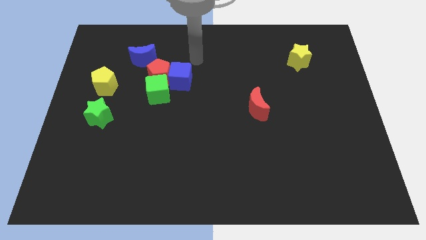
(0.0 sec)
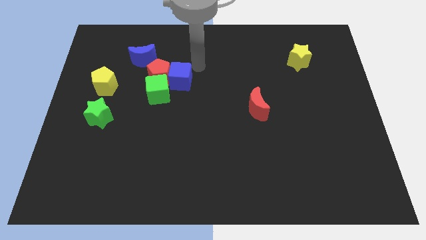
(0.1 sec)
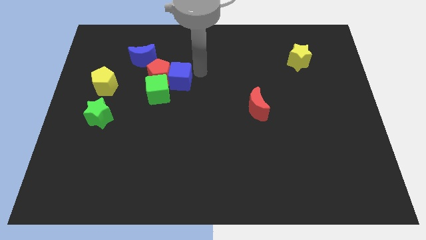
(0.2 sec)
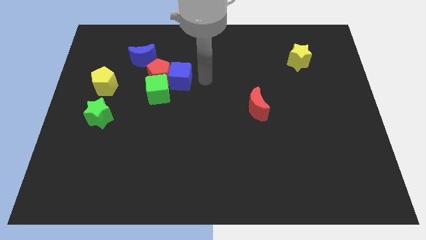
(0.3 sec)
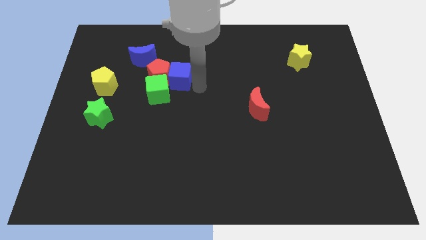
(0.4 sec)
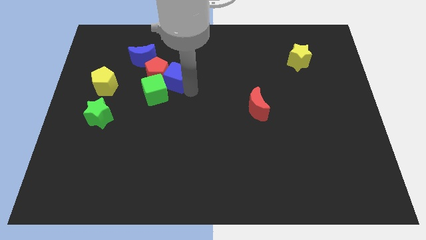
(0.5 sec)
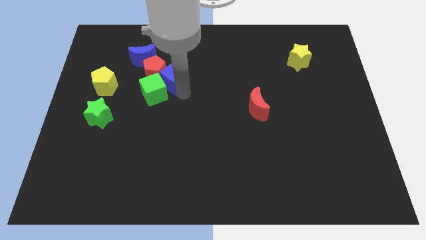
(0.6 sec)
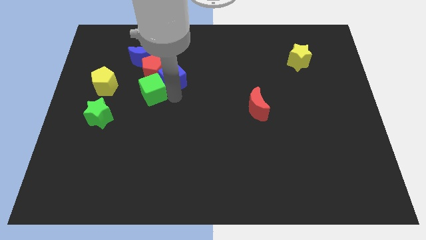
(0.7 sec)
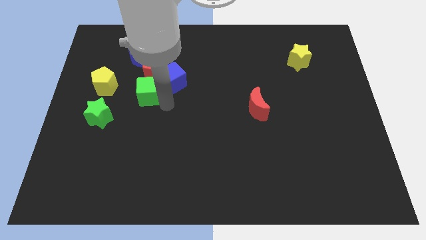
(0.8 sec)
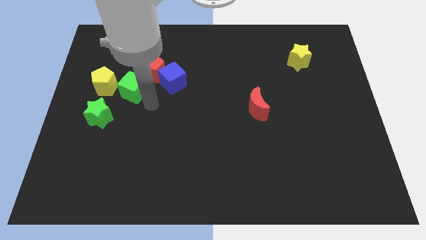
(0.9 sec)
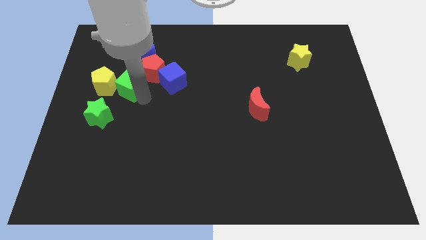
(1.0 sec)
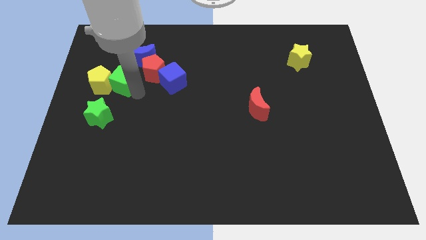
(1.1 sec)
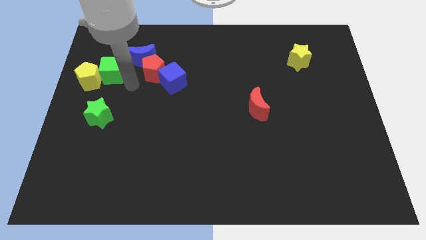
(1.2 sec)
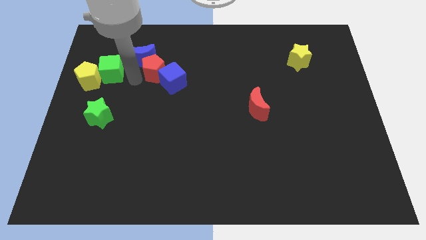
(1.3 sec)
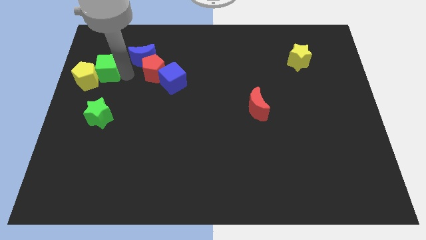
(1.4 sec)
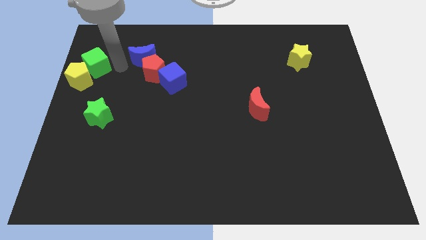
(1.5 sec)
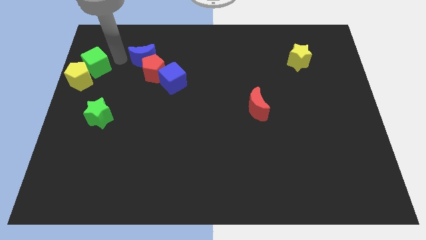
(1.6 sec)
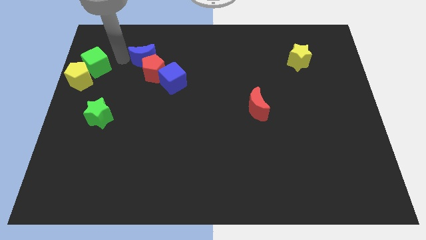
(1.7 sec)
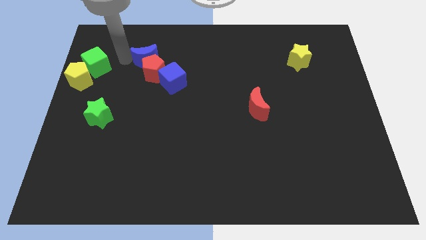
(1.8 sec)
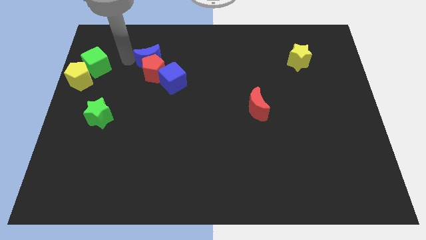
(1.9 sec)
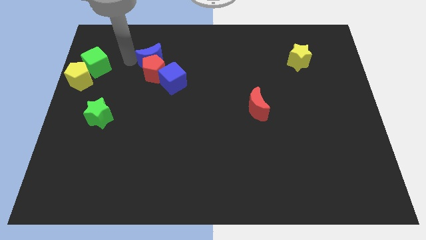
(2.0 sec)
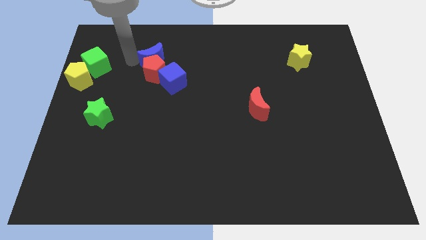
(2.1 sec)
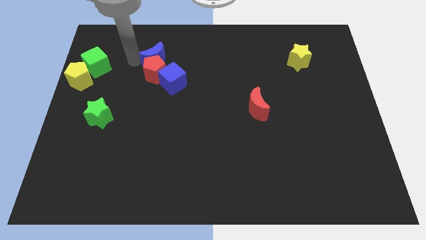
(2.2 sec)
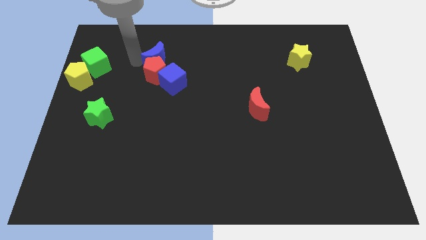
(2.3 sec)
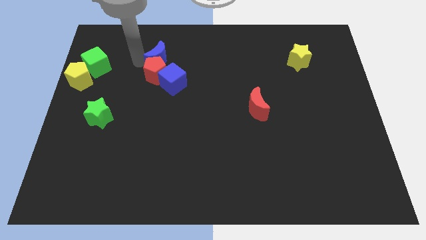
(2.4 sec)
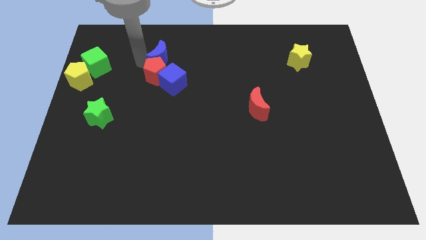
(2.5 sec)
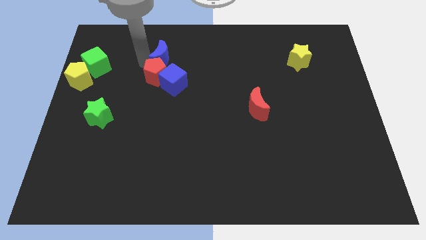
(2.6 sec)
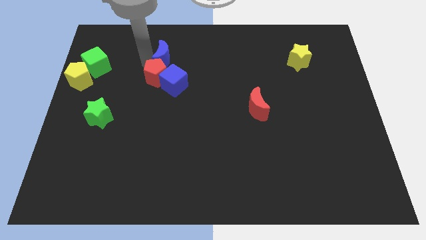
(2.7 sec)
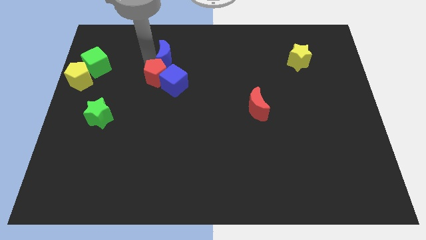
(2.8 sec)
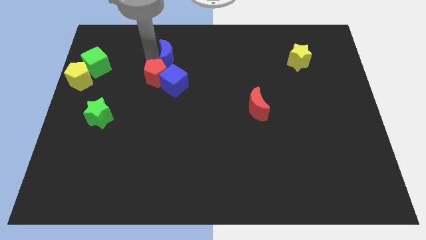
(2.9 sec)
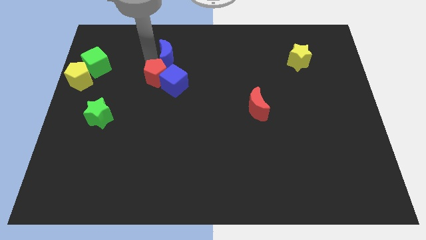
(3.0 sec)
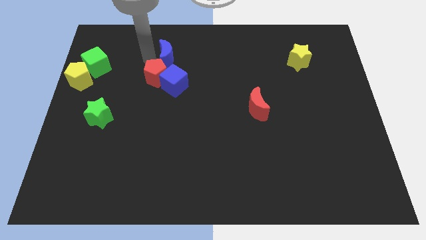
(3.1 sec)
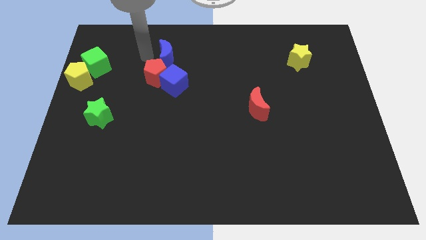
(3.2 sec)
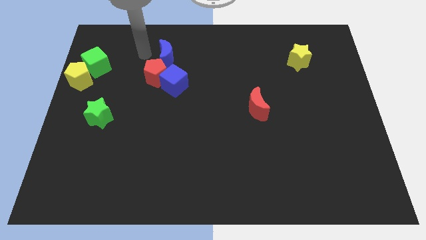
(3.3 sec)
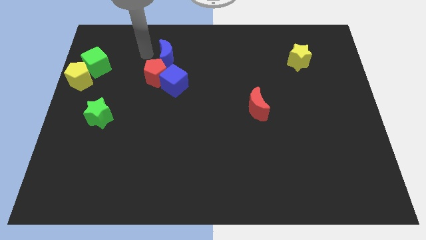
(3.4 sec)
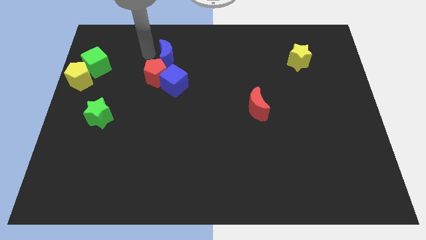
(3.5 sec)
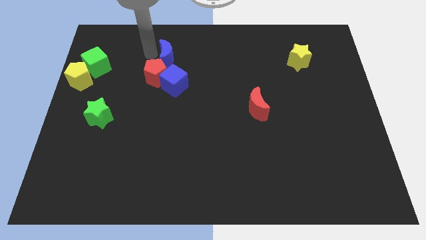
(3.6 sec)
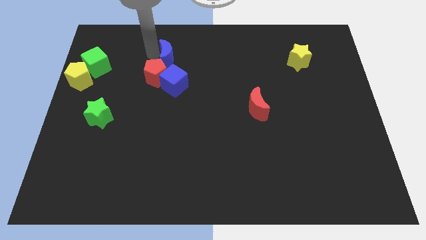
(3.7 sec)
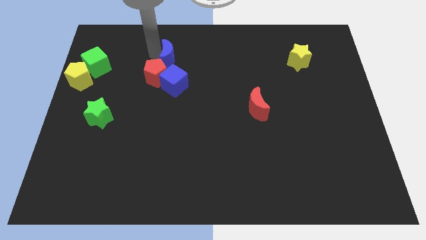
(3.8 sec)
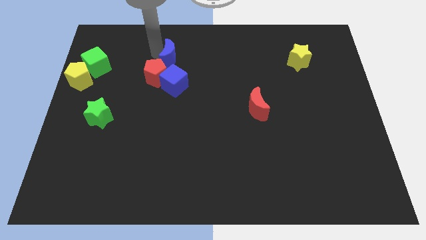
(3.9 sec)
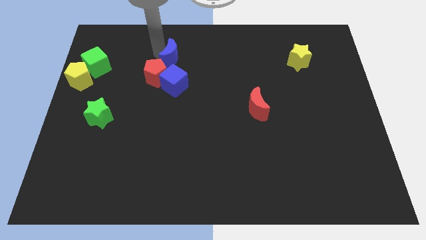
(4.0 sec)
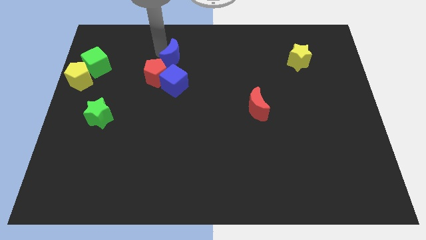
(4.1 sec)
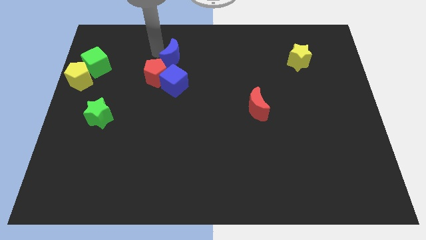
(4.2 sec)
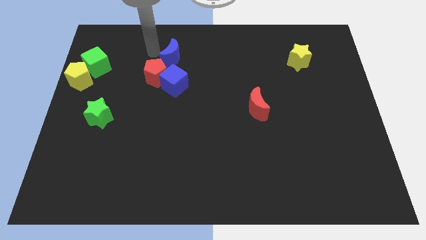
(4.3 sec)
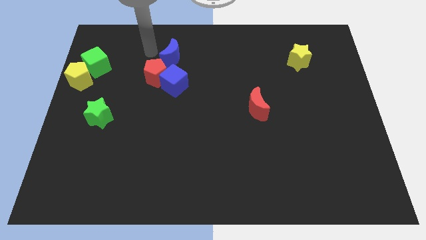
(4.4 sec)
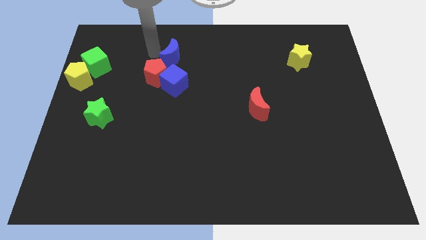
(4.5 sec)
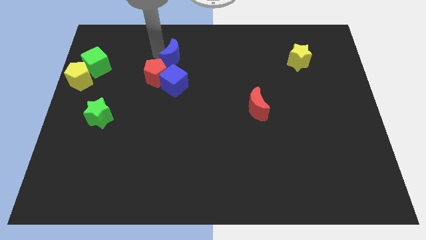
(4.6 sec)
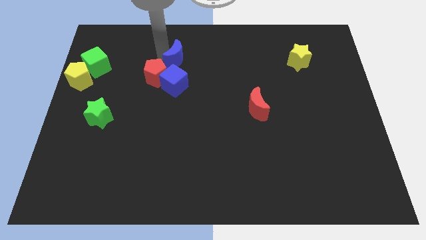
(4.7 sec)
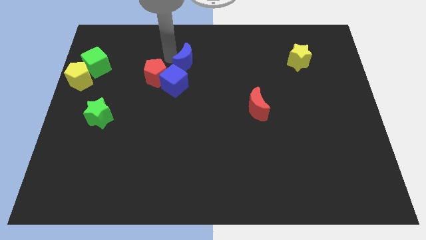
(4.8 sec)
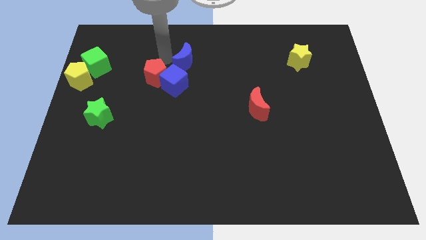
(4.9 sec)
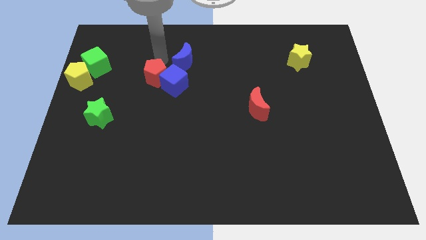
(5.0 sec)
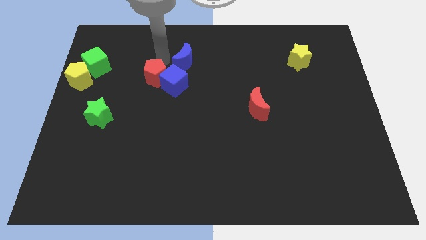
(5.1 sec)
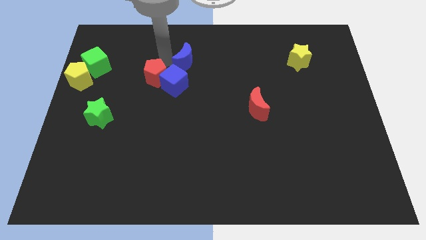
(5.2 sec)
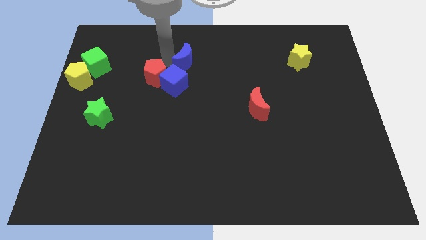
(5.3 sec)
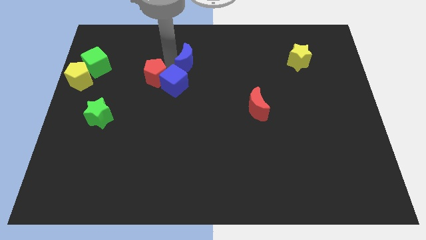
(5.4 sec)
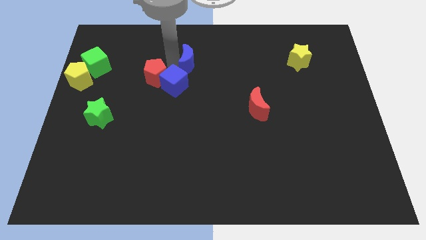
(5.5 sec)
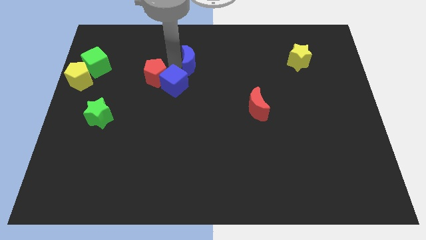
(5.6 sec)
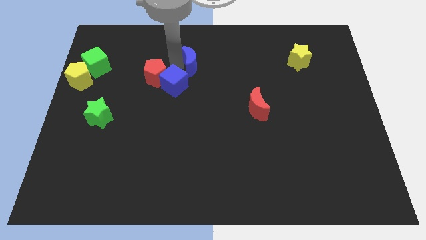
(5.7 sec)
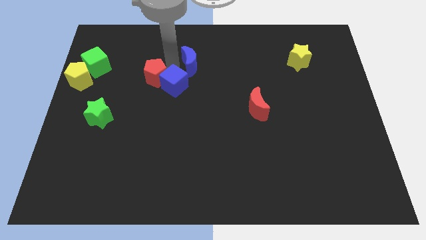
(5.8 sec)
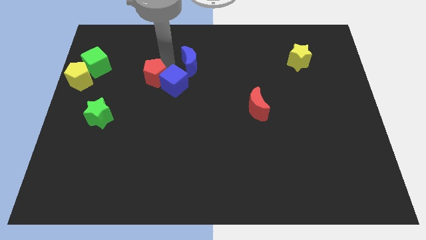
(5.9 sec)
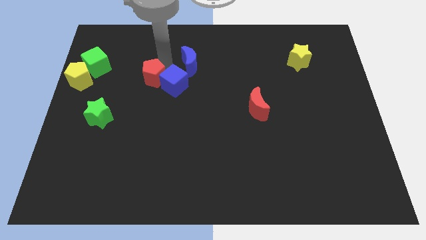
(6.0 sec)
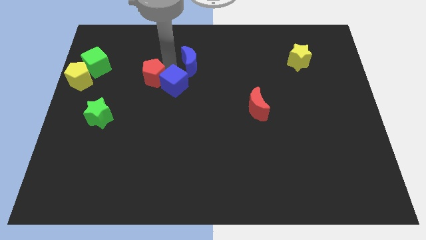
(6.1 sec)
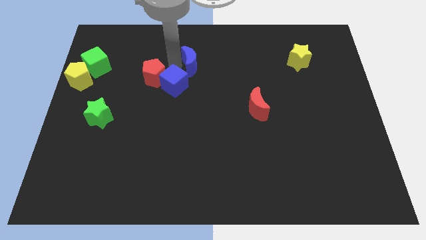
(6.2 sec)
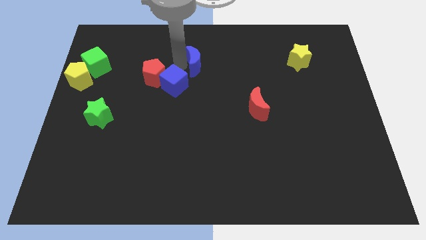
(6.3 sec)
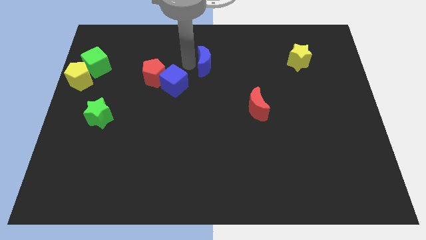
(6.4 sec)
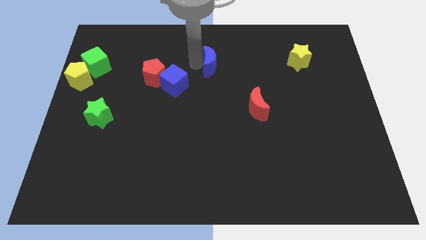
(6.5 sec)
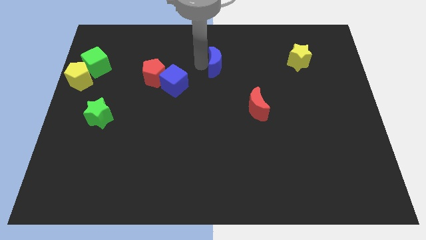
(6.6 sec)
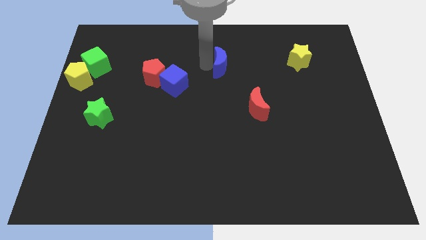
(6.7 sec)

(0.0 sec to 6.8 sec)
slide the blue moon right

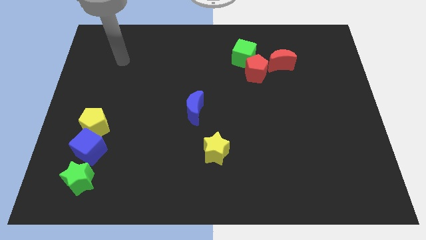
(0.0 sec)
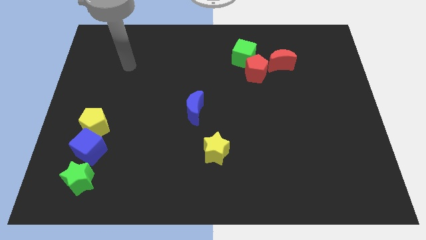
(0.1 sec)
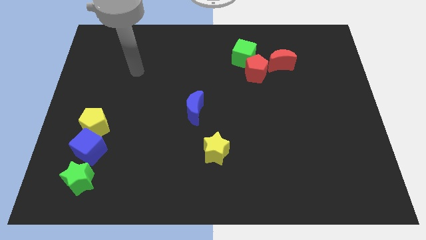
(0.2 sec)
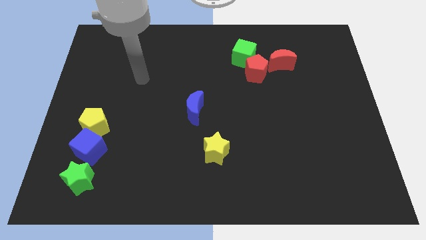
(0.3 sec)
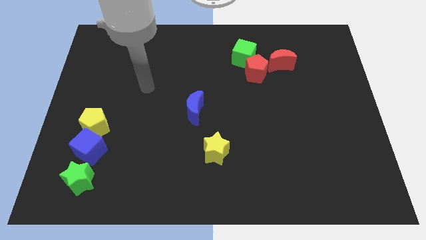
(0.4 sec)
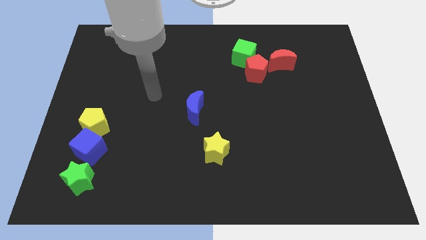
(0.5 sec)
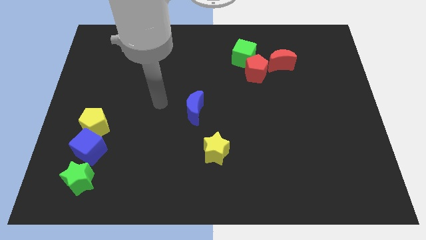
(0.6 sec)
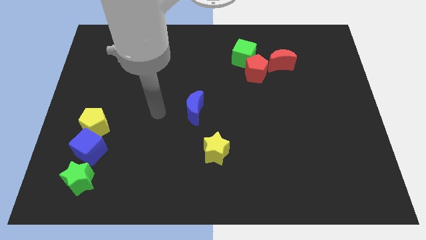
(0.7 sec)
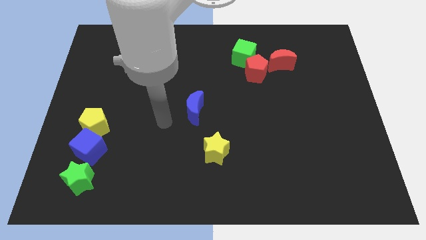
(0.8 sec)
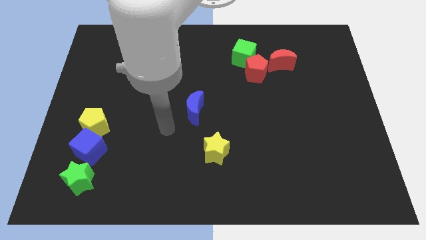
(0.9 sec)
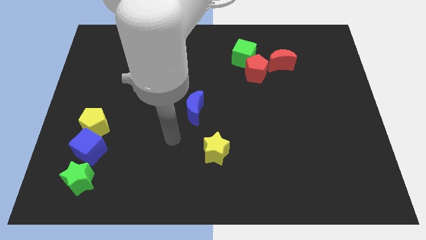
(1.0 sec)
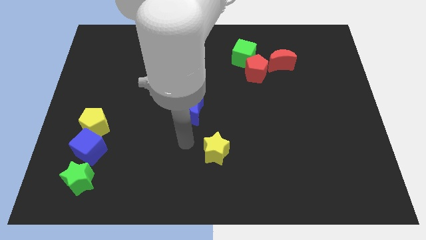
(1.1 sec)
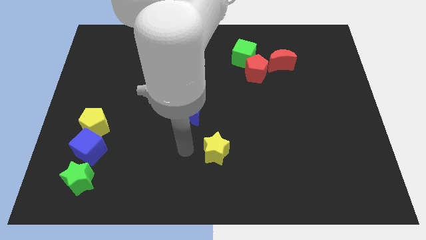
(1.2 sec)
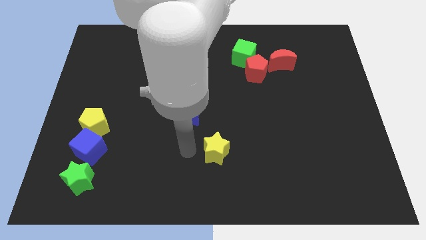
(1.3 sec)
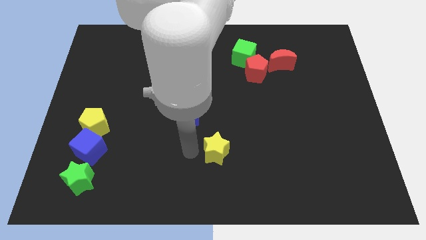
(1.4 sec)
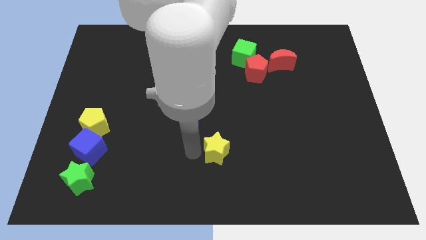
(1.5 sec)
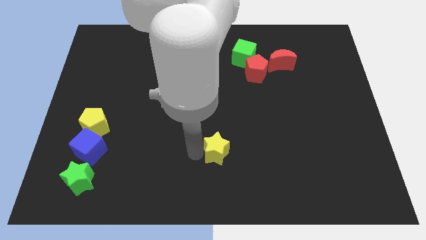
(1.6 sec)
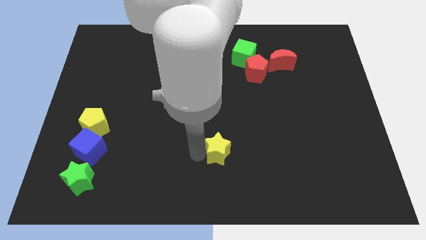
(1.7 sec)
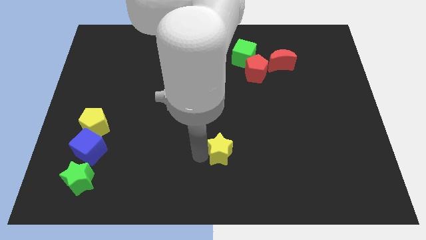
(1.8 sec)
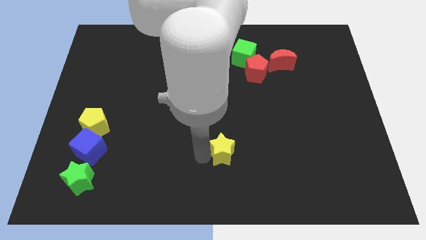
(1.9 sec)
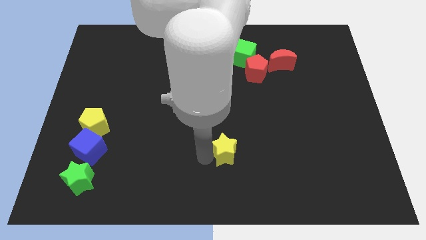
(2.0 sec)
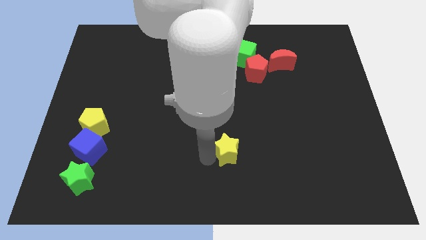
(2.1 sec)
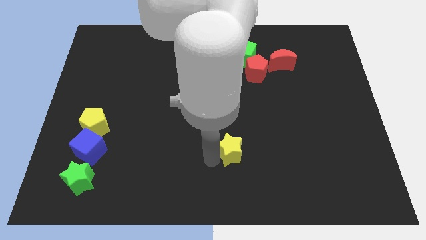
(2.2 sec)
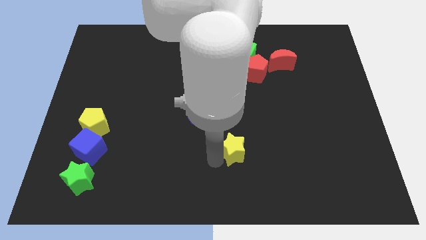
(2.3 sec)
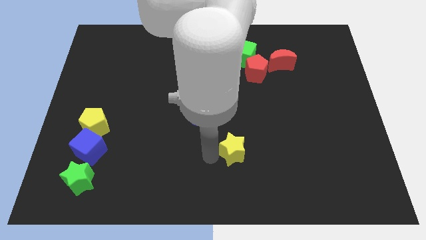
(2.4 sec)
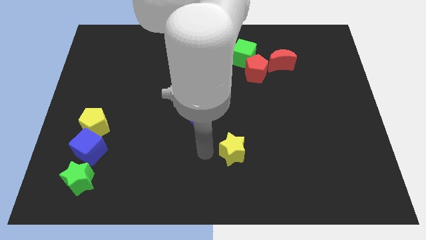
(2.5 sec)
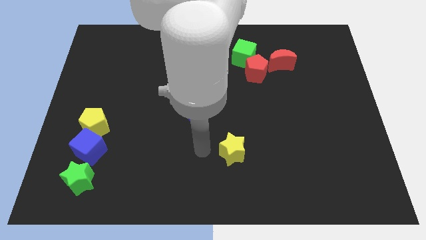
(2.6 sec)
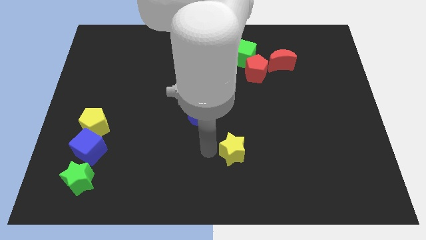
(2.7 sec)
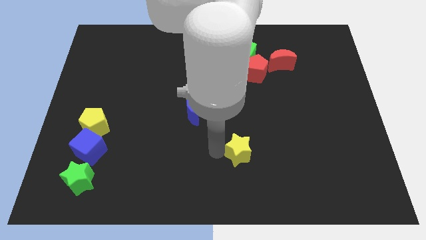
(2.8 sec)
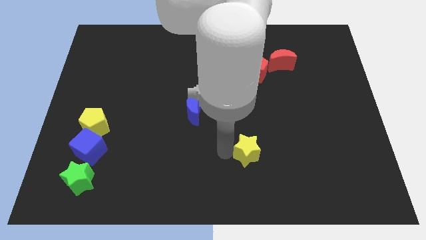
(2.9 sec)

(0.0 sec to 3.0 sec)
slightly push the yellow star to the right
